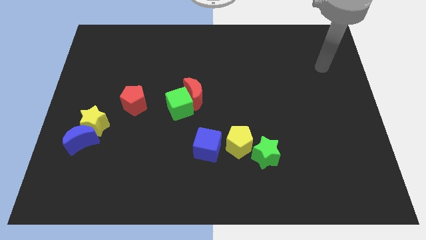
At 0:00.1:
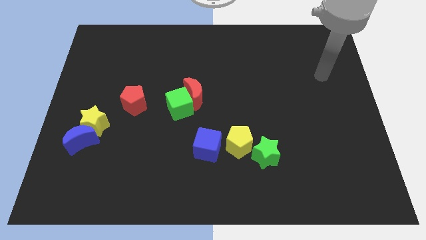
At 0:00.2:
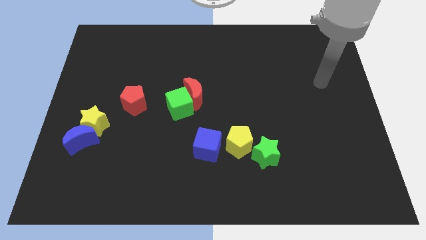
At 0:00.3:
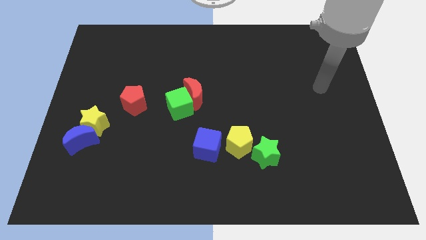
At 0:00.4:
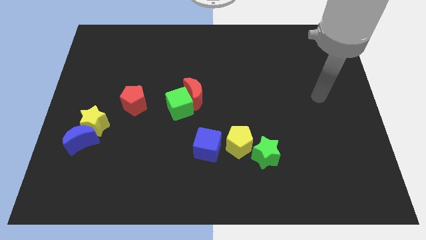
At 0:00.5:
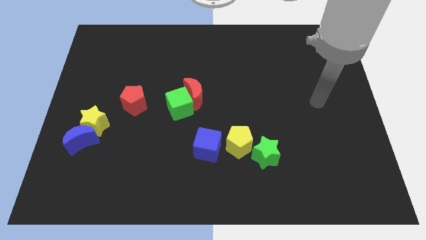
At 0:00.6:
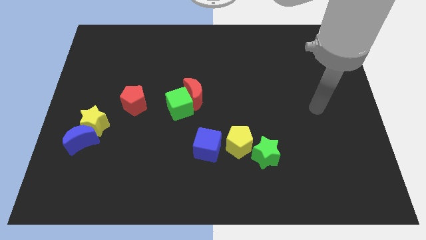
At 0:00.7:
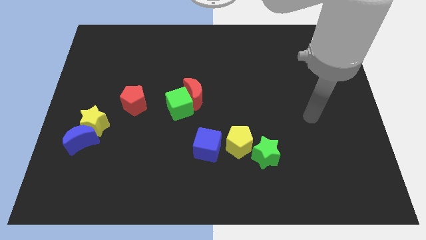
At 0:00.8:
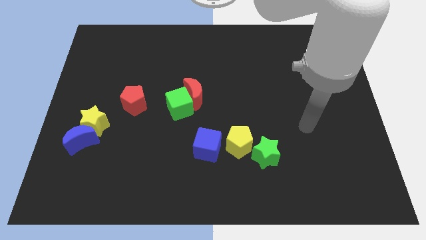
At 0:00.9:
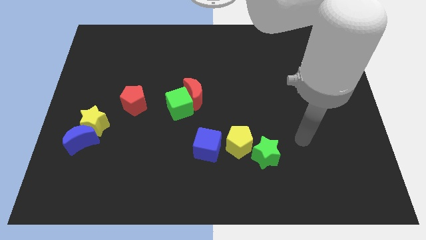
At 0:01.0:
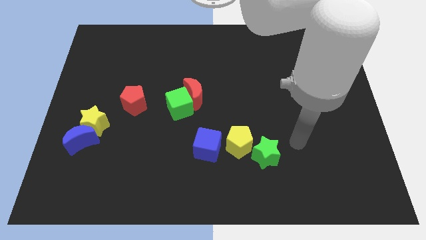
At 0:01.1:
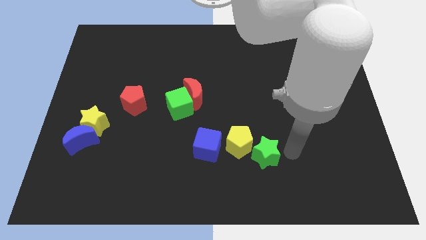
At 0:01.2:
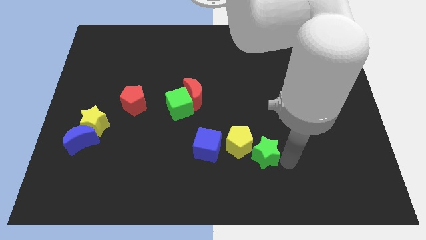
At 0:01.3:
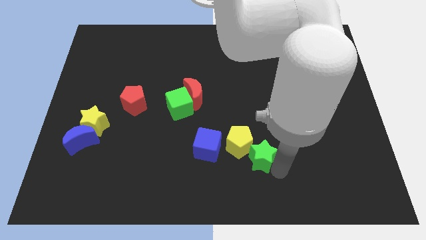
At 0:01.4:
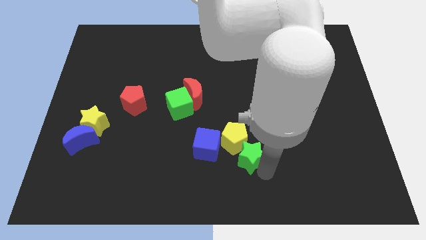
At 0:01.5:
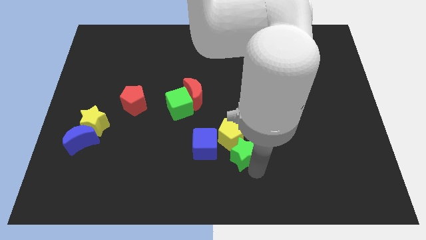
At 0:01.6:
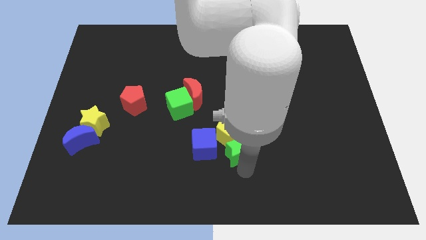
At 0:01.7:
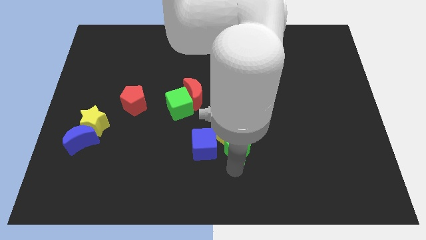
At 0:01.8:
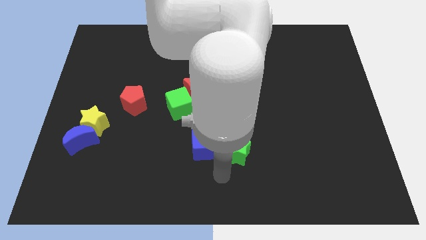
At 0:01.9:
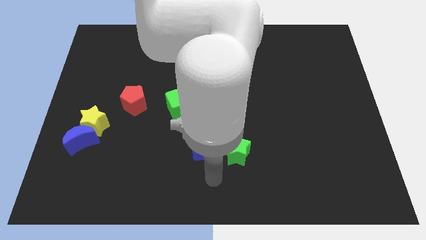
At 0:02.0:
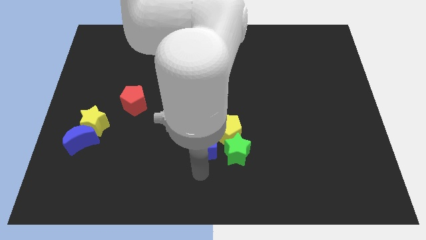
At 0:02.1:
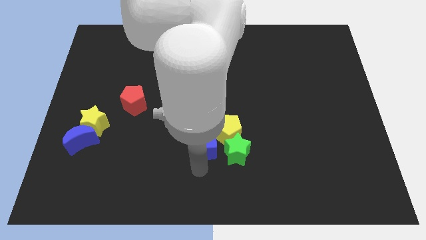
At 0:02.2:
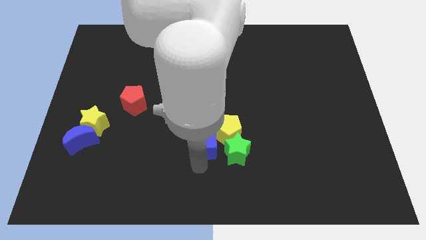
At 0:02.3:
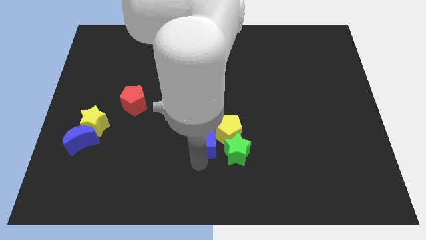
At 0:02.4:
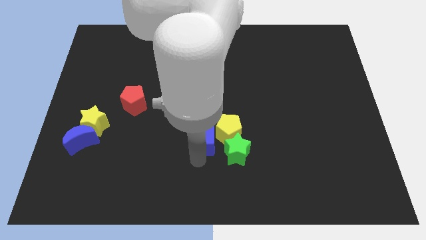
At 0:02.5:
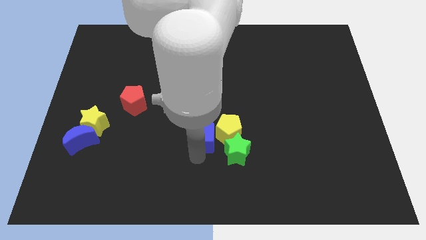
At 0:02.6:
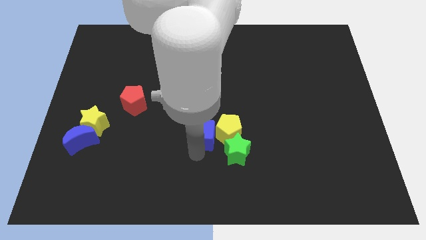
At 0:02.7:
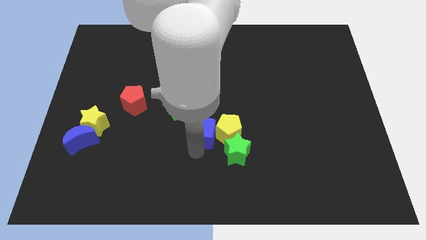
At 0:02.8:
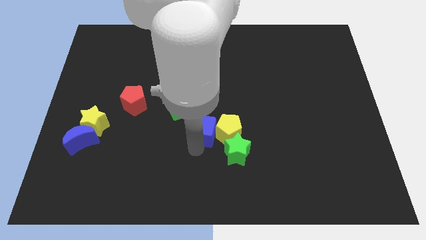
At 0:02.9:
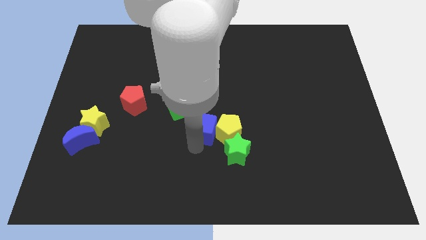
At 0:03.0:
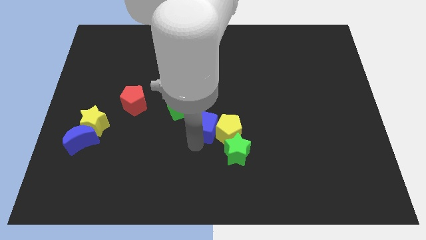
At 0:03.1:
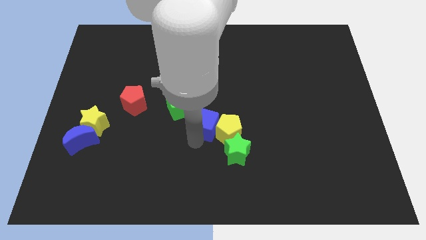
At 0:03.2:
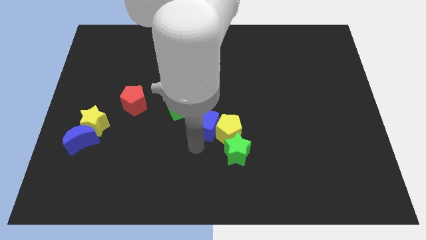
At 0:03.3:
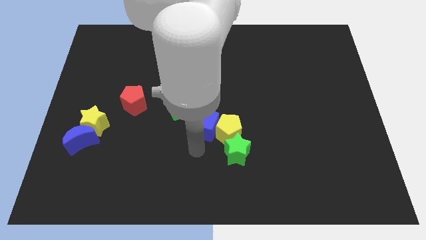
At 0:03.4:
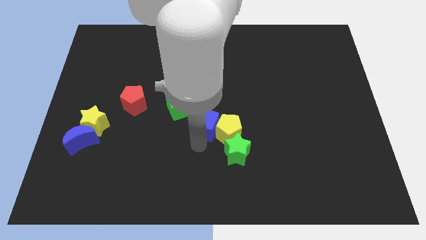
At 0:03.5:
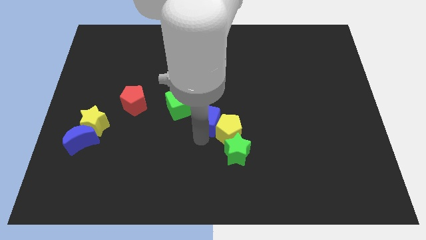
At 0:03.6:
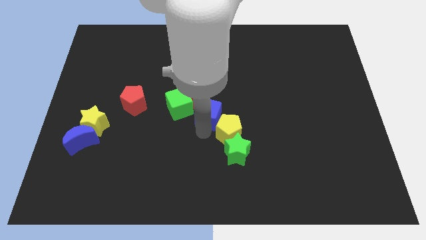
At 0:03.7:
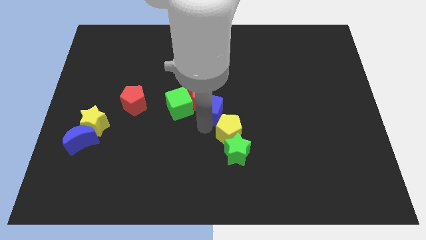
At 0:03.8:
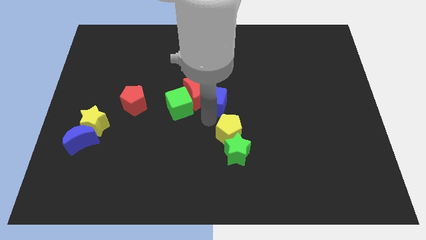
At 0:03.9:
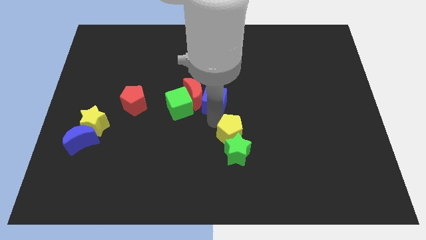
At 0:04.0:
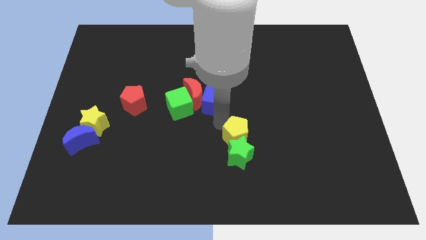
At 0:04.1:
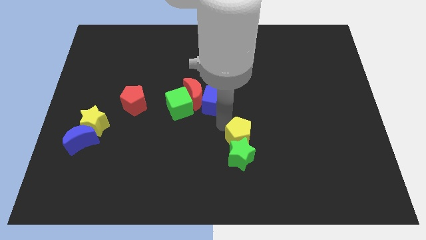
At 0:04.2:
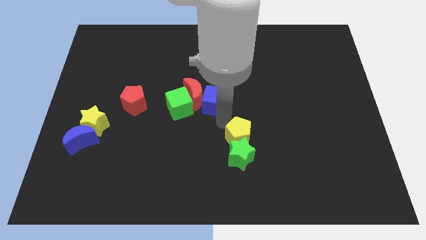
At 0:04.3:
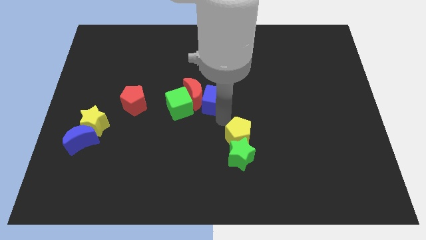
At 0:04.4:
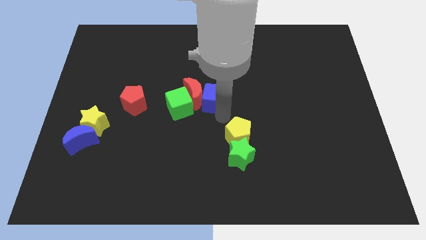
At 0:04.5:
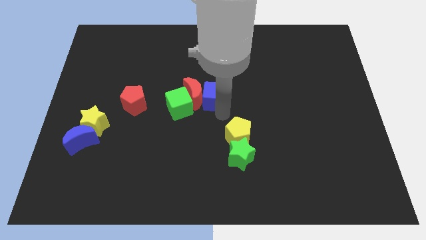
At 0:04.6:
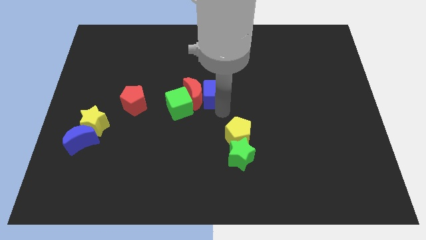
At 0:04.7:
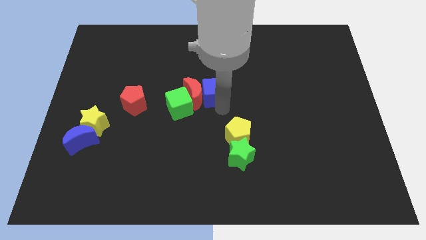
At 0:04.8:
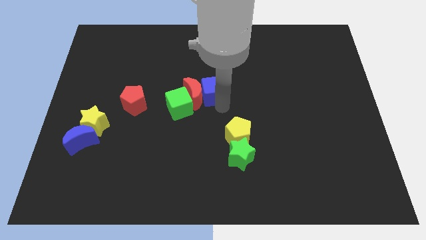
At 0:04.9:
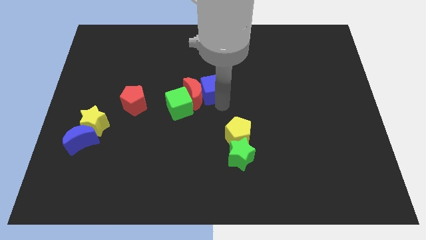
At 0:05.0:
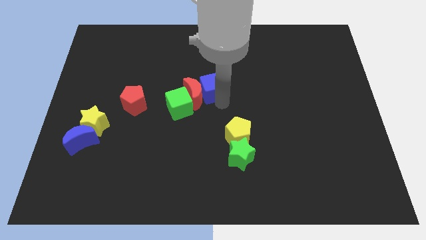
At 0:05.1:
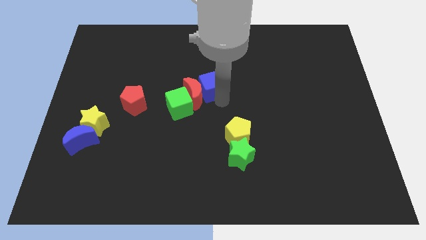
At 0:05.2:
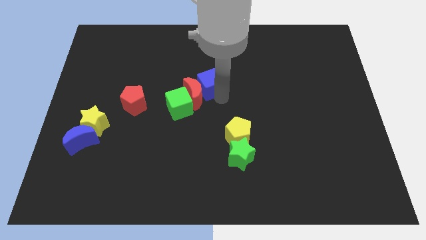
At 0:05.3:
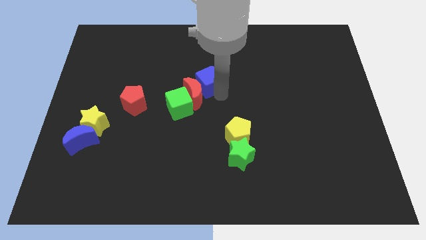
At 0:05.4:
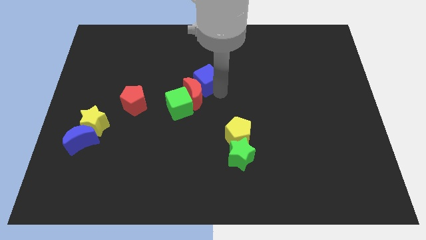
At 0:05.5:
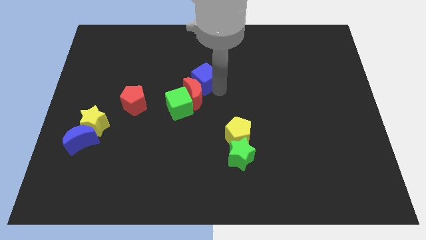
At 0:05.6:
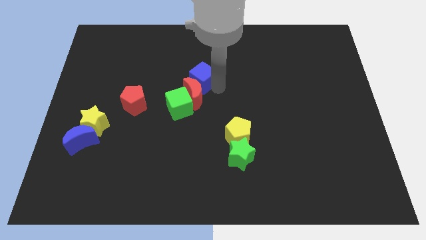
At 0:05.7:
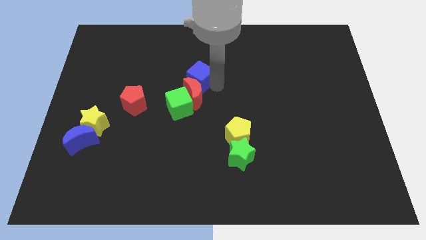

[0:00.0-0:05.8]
put the blue cube to the top side of the green cube

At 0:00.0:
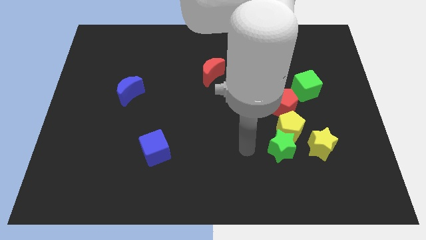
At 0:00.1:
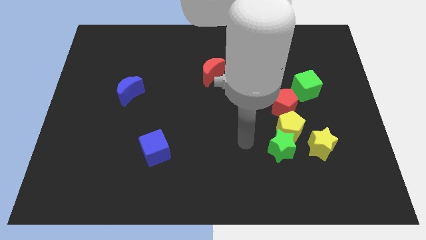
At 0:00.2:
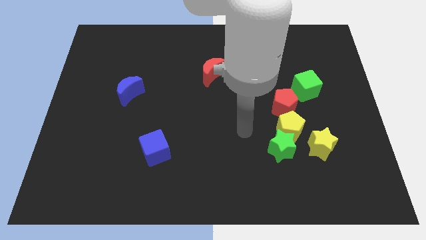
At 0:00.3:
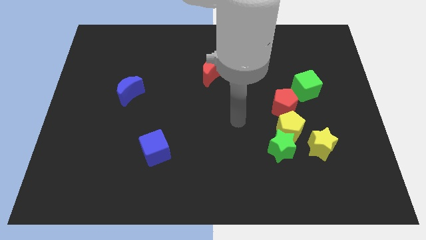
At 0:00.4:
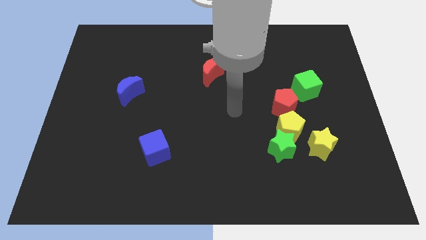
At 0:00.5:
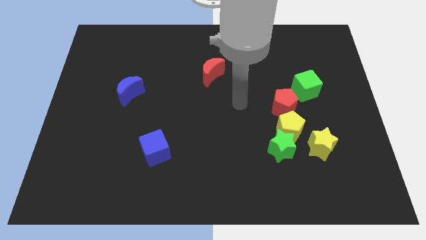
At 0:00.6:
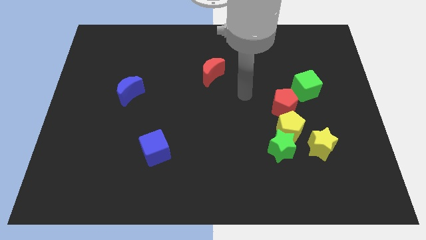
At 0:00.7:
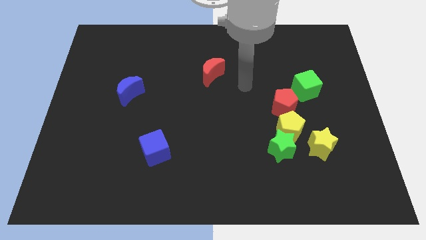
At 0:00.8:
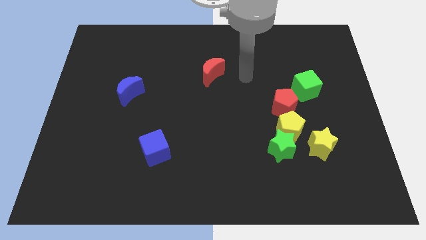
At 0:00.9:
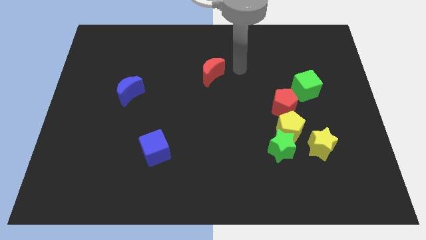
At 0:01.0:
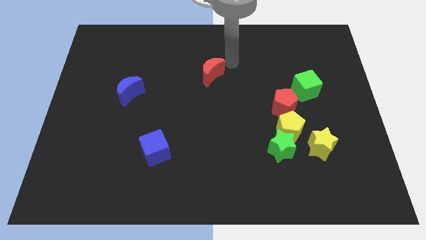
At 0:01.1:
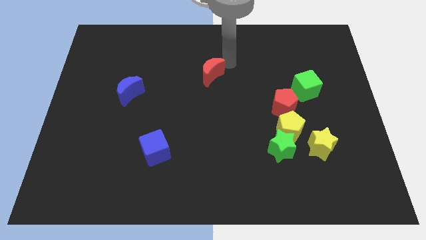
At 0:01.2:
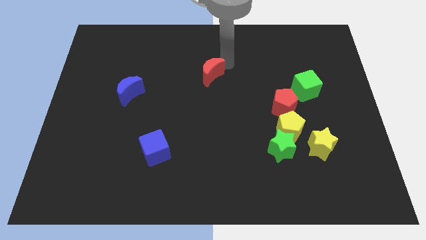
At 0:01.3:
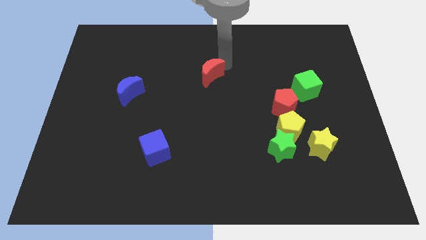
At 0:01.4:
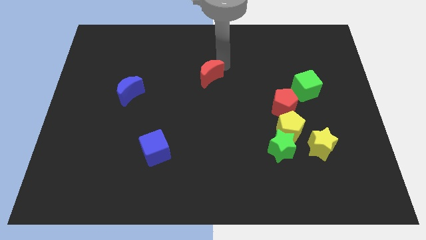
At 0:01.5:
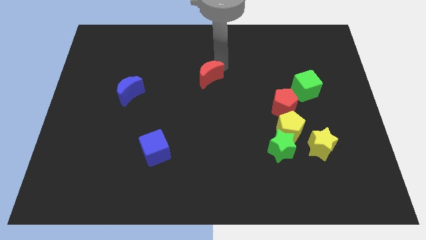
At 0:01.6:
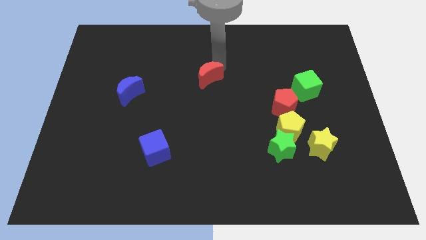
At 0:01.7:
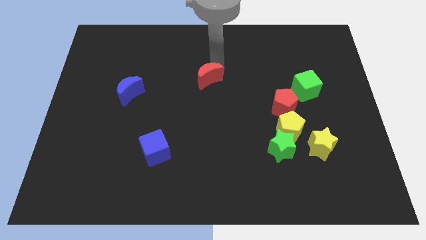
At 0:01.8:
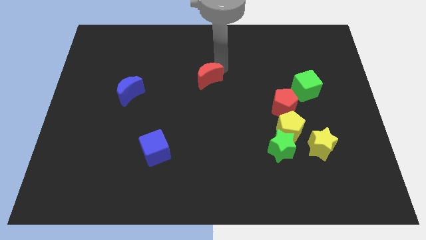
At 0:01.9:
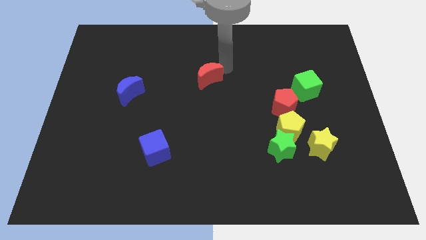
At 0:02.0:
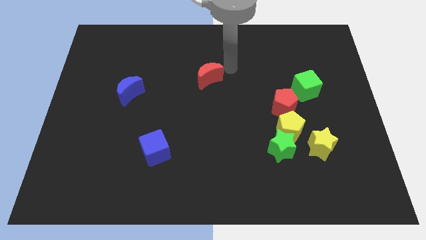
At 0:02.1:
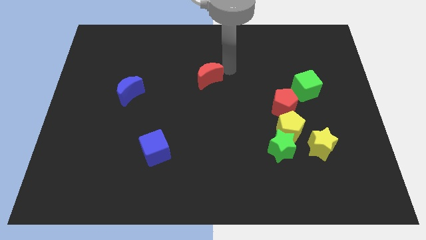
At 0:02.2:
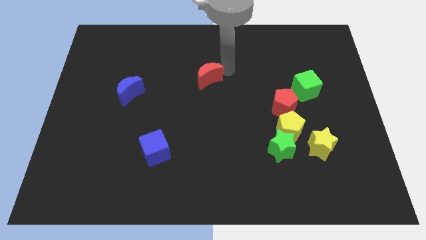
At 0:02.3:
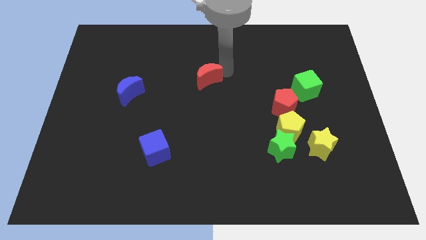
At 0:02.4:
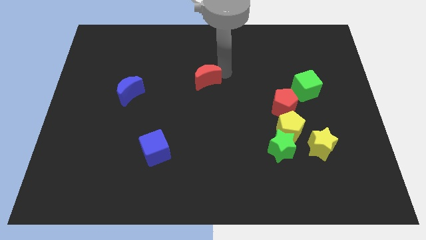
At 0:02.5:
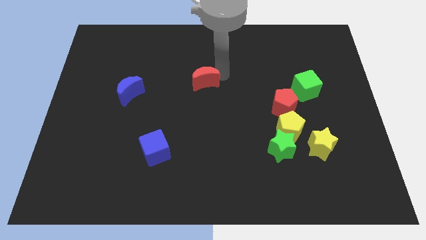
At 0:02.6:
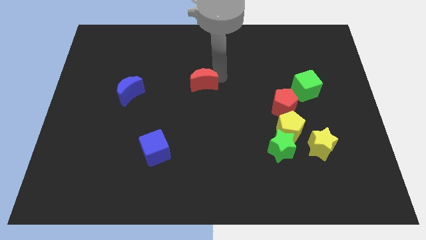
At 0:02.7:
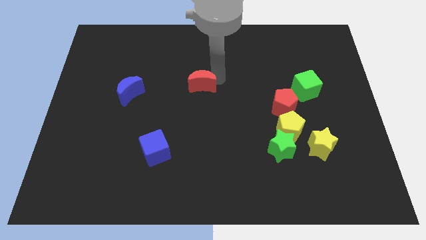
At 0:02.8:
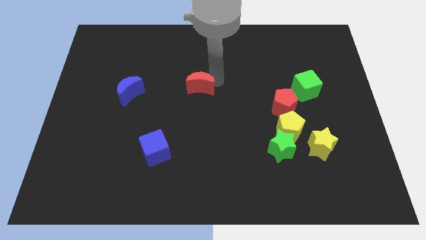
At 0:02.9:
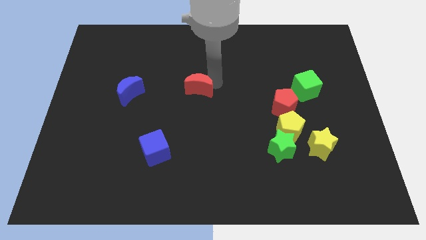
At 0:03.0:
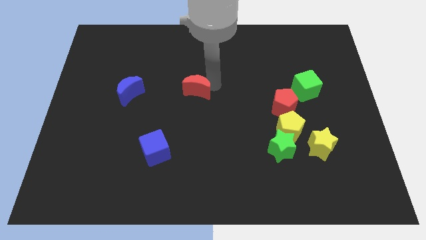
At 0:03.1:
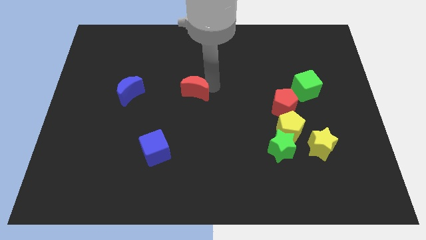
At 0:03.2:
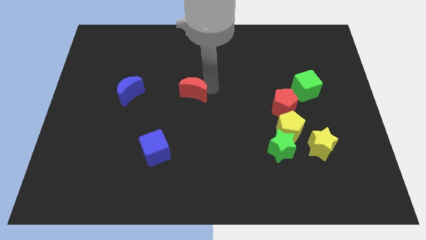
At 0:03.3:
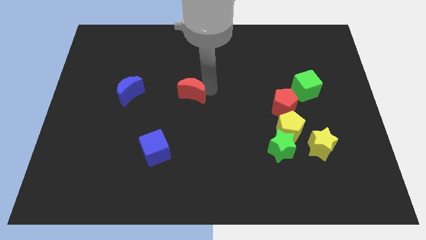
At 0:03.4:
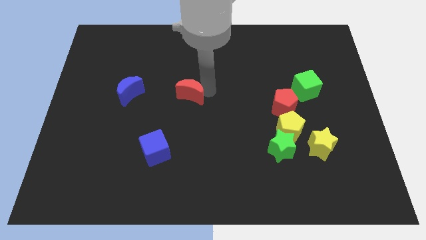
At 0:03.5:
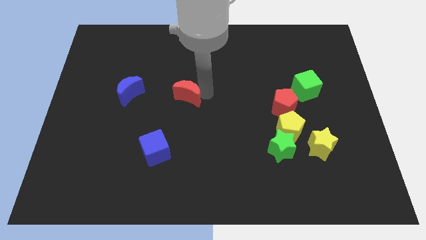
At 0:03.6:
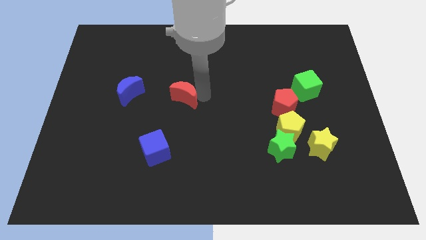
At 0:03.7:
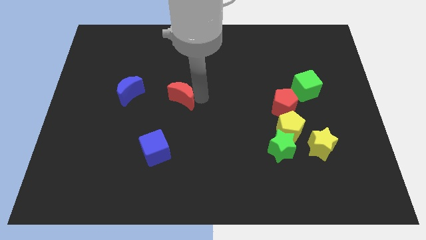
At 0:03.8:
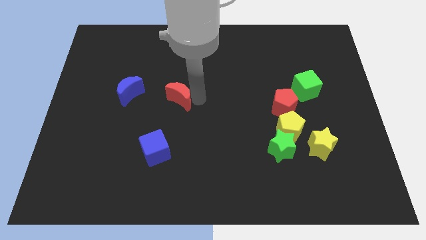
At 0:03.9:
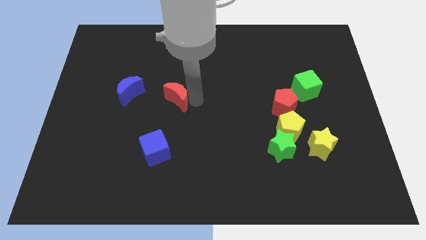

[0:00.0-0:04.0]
push the red moon above the blue cube
